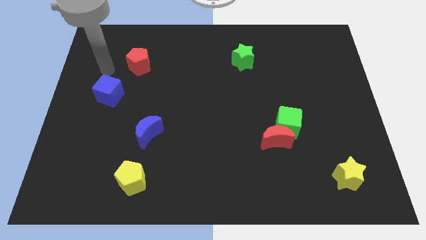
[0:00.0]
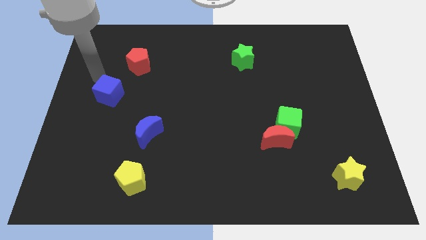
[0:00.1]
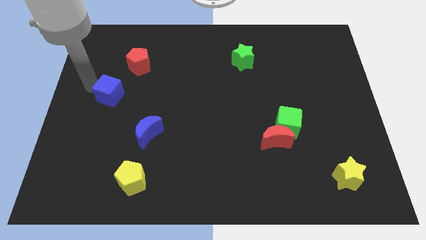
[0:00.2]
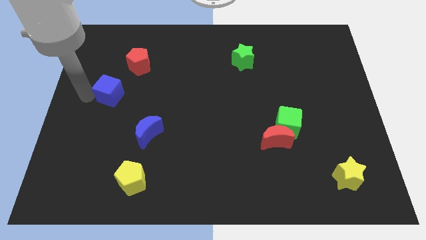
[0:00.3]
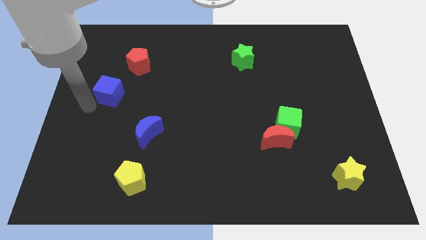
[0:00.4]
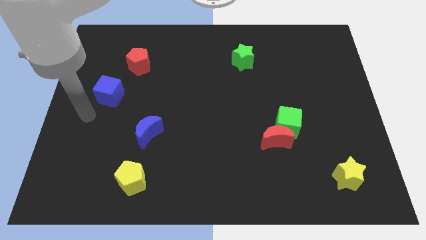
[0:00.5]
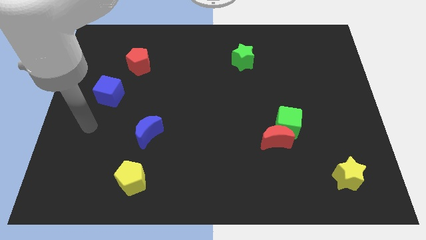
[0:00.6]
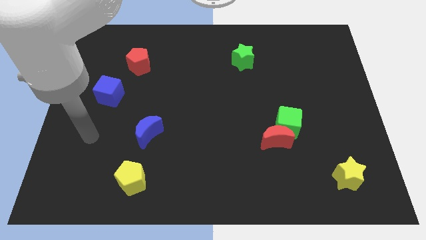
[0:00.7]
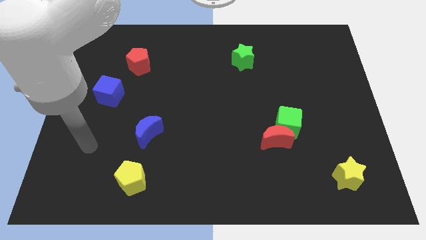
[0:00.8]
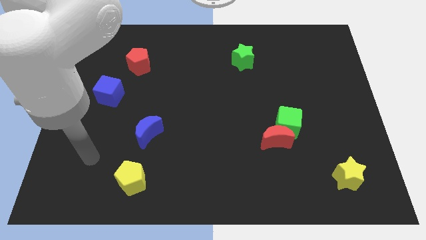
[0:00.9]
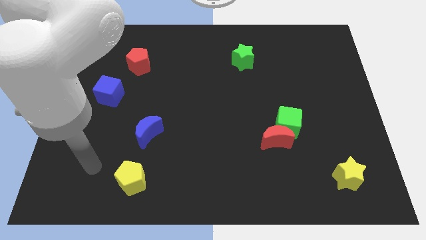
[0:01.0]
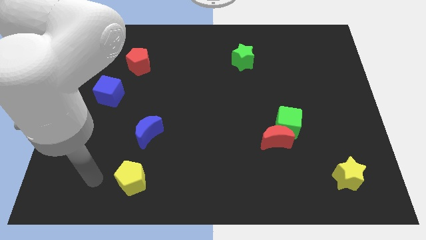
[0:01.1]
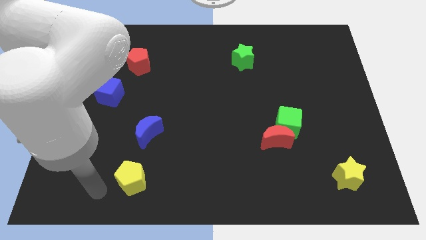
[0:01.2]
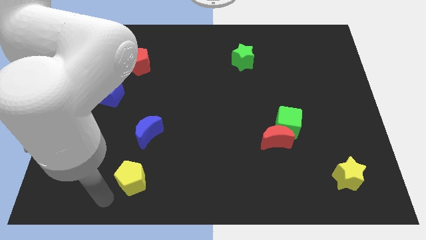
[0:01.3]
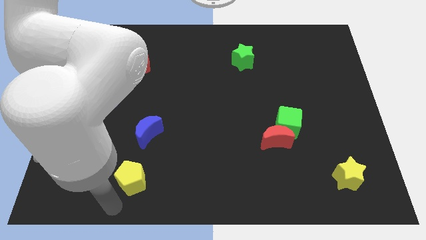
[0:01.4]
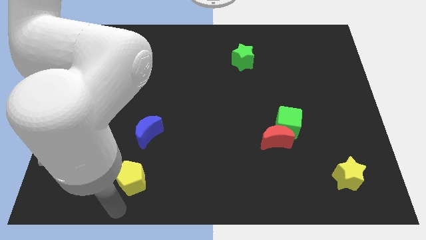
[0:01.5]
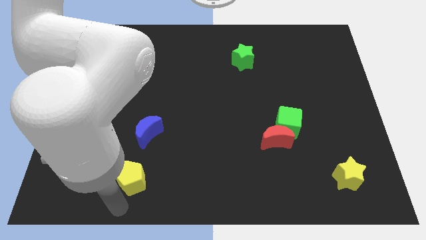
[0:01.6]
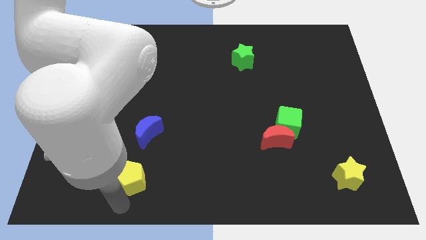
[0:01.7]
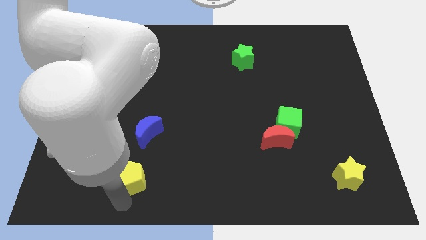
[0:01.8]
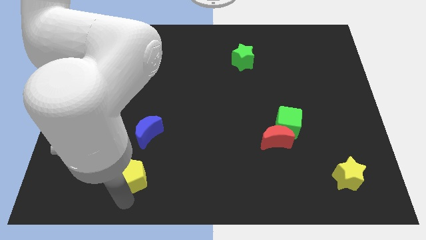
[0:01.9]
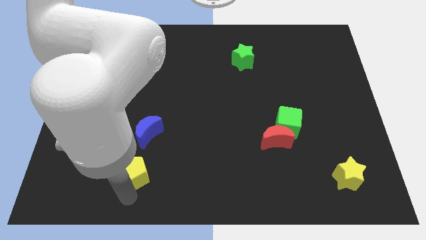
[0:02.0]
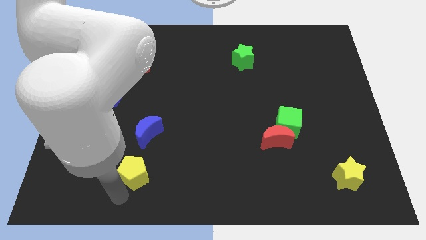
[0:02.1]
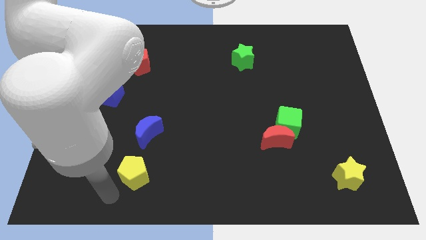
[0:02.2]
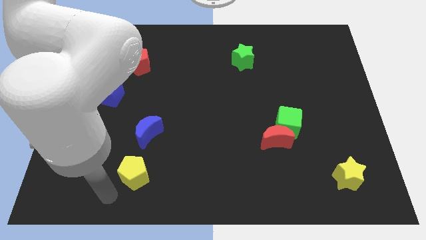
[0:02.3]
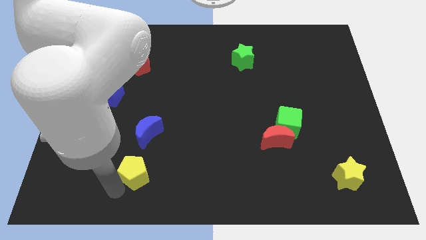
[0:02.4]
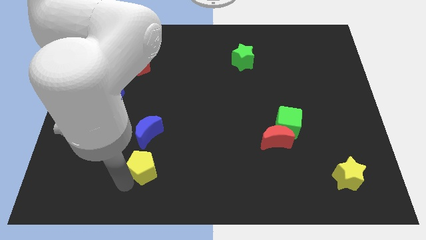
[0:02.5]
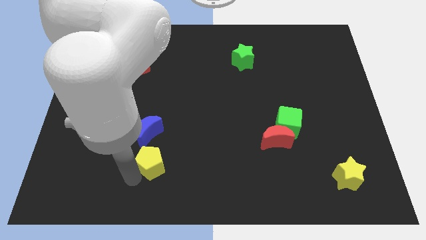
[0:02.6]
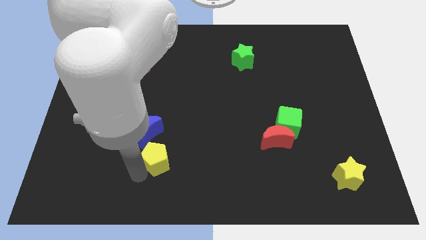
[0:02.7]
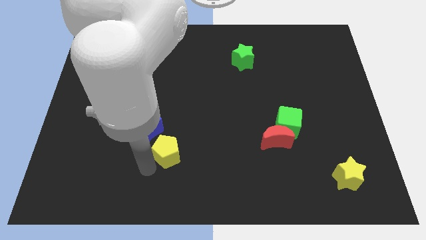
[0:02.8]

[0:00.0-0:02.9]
push the yellow pentagon a little up and then to the right

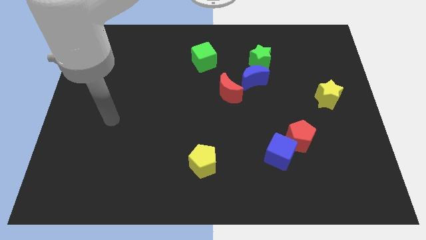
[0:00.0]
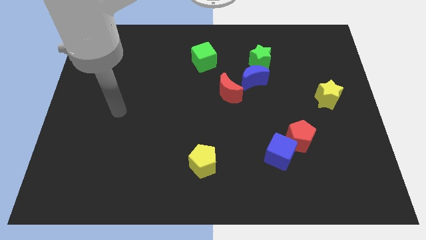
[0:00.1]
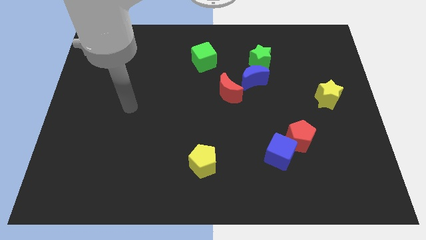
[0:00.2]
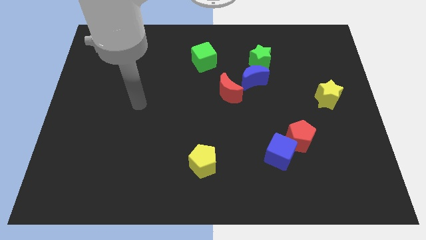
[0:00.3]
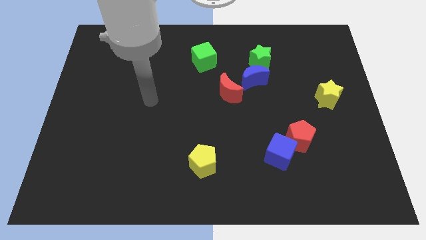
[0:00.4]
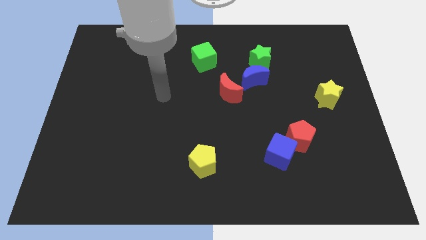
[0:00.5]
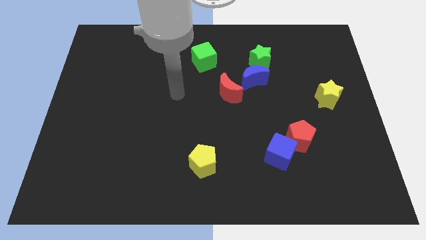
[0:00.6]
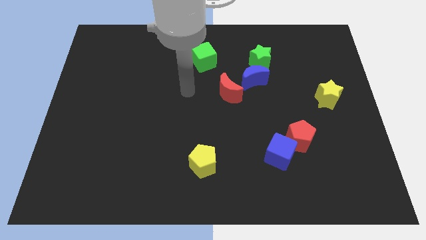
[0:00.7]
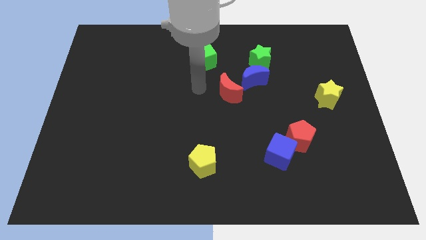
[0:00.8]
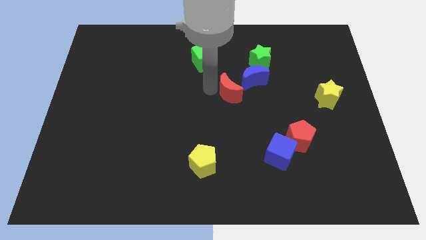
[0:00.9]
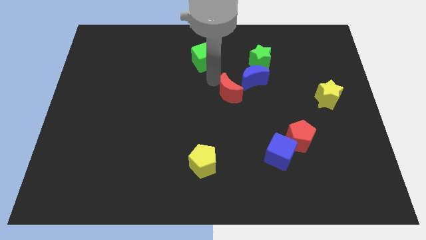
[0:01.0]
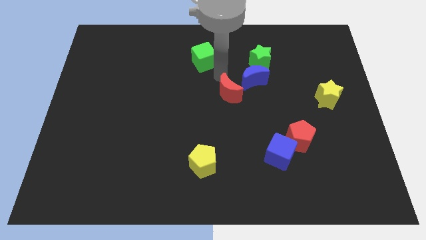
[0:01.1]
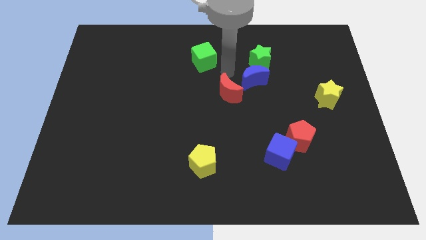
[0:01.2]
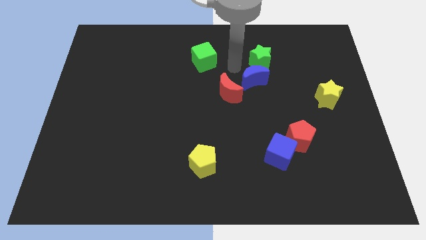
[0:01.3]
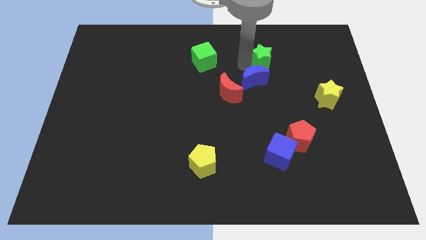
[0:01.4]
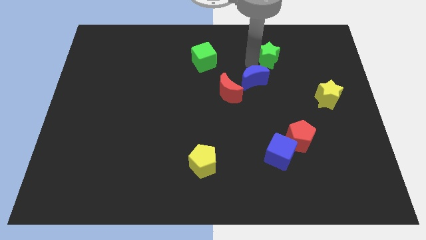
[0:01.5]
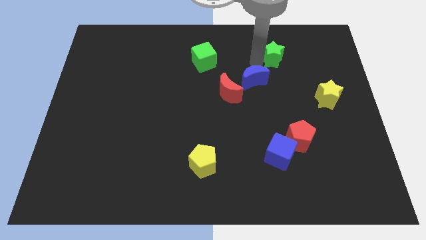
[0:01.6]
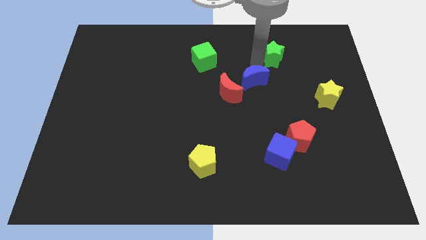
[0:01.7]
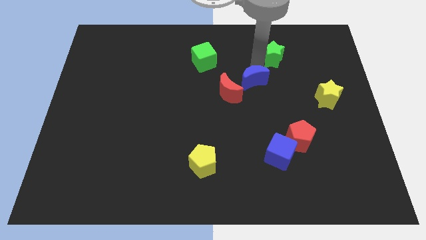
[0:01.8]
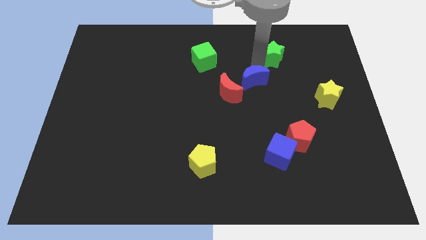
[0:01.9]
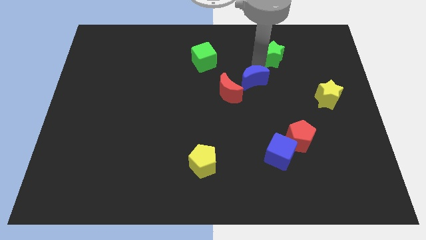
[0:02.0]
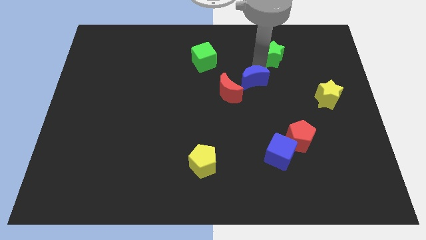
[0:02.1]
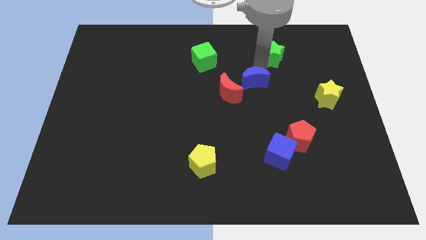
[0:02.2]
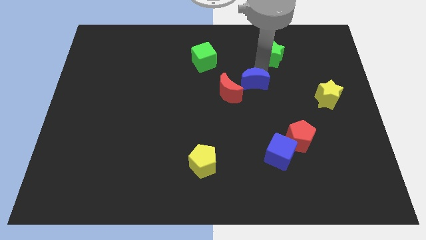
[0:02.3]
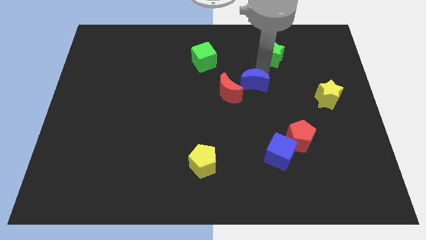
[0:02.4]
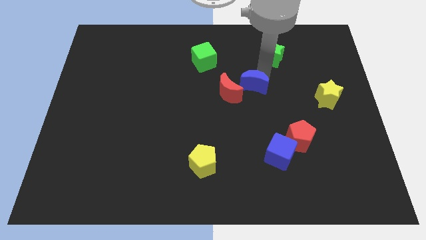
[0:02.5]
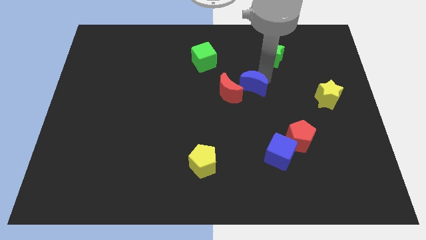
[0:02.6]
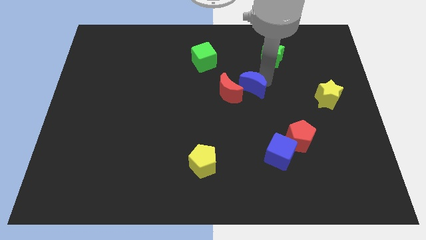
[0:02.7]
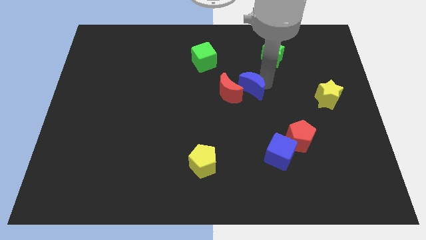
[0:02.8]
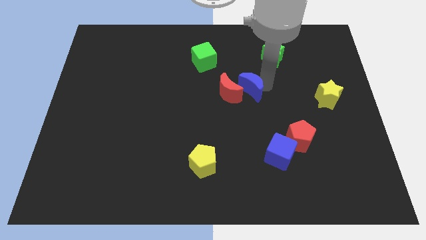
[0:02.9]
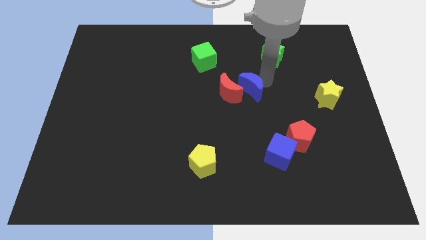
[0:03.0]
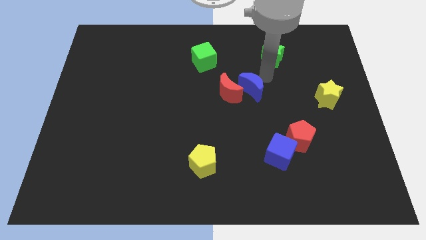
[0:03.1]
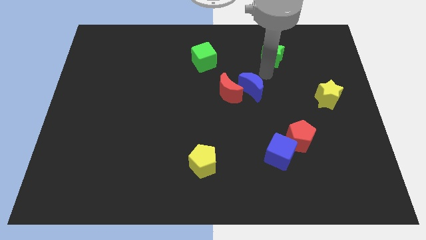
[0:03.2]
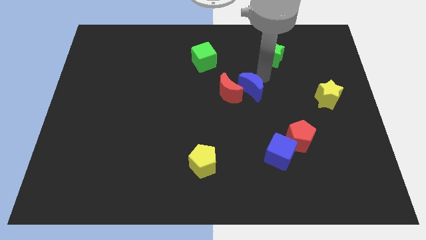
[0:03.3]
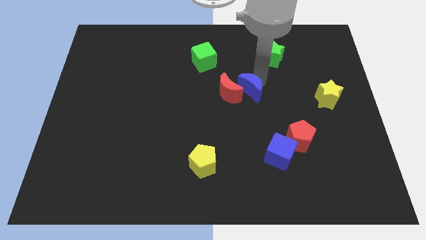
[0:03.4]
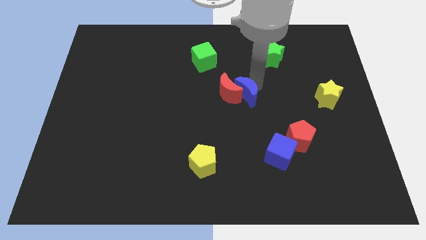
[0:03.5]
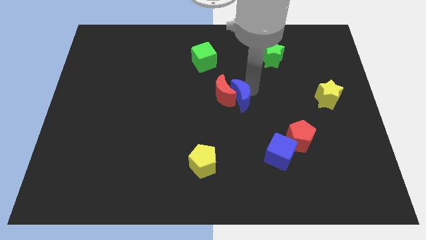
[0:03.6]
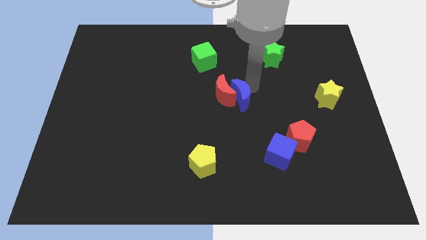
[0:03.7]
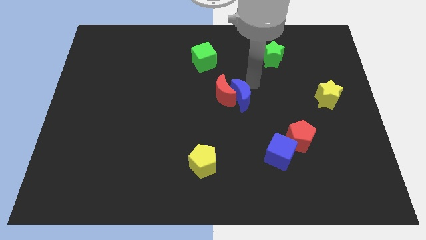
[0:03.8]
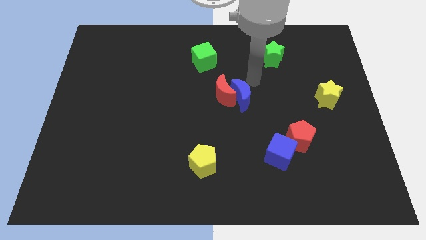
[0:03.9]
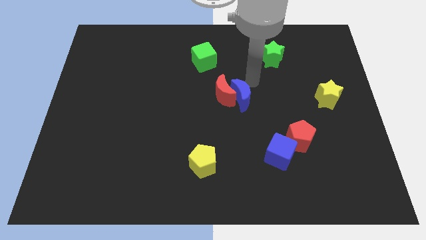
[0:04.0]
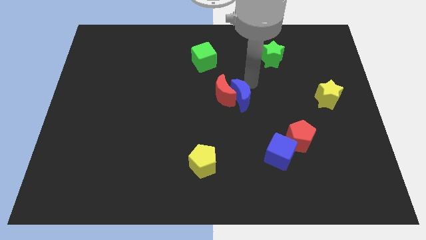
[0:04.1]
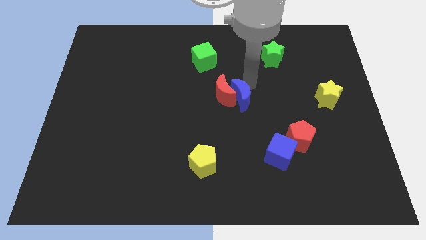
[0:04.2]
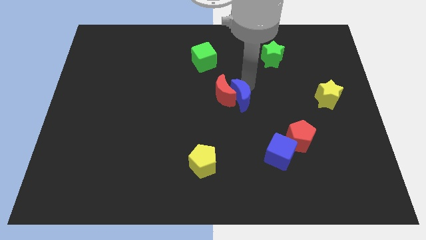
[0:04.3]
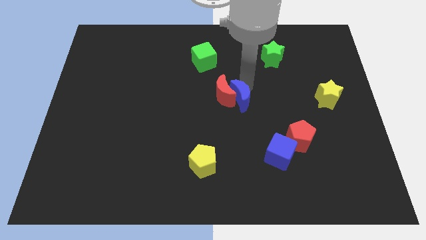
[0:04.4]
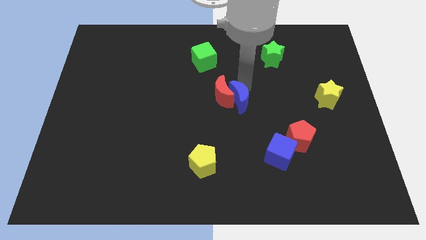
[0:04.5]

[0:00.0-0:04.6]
move the blue moon a little bit downwards and then left

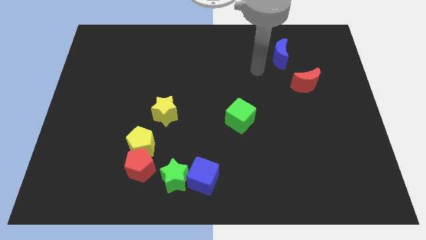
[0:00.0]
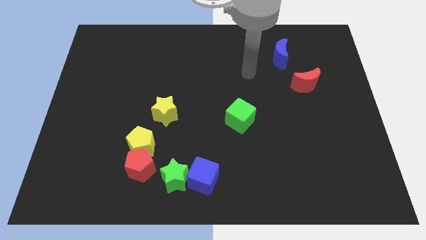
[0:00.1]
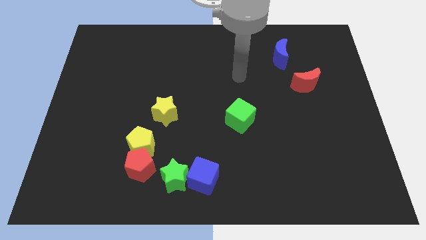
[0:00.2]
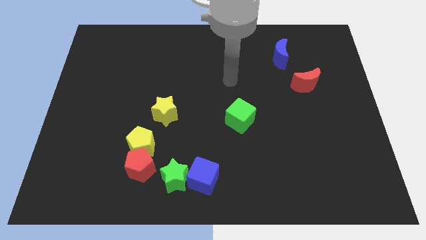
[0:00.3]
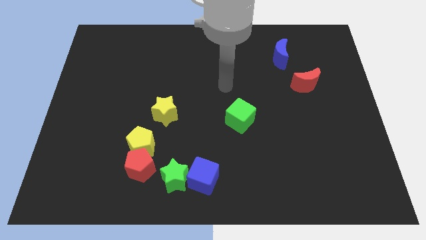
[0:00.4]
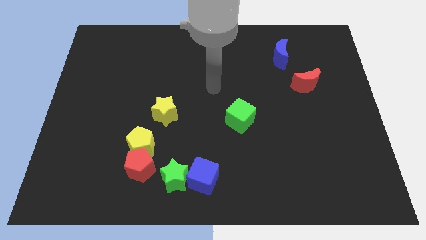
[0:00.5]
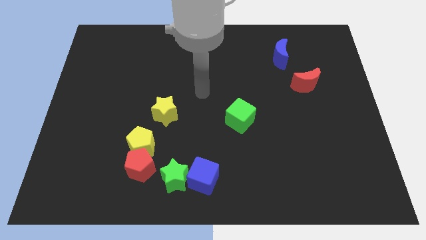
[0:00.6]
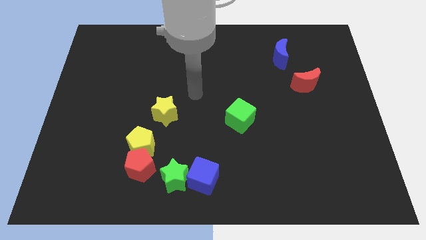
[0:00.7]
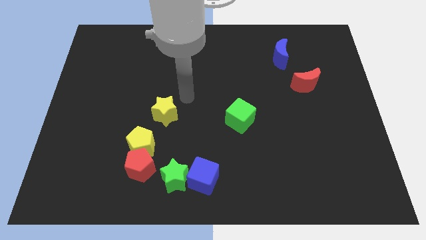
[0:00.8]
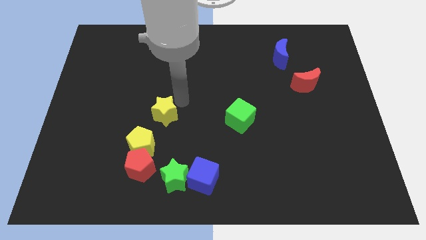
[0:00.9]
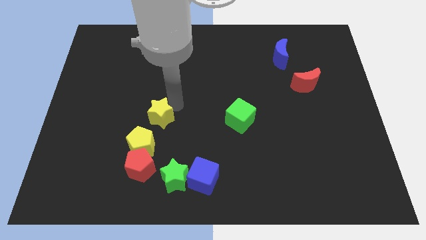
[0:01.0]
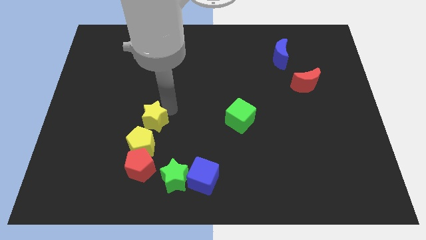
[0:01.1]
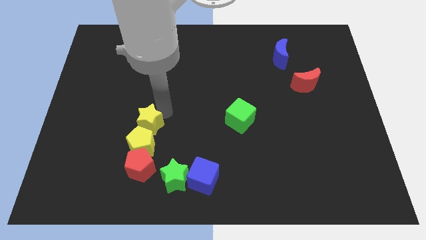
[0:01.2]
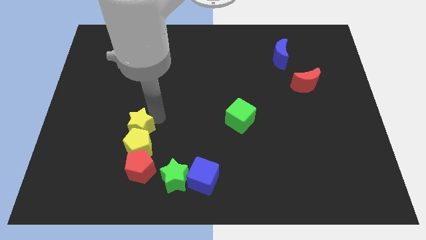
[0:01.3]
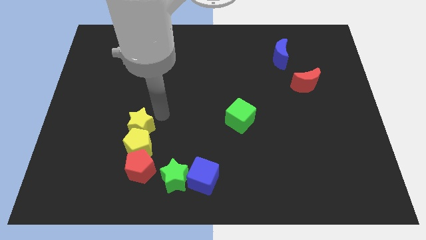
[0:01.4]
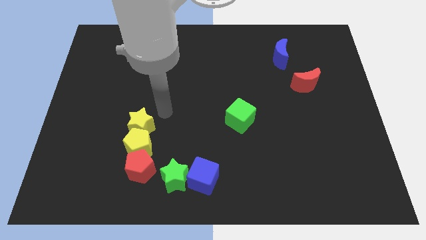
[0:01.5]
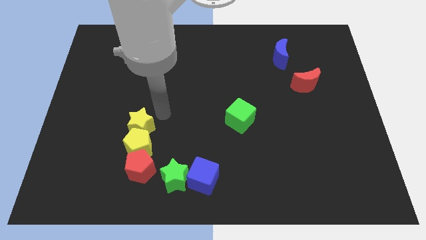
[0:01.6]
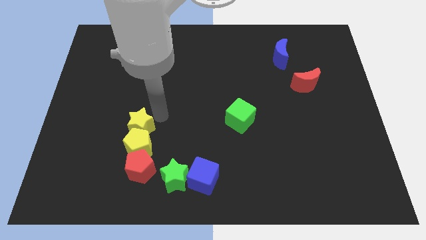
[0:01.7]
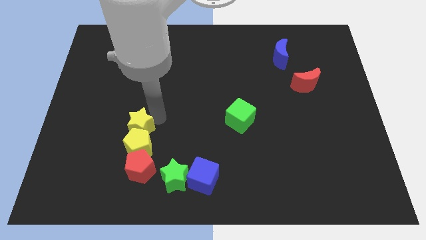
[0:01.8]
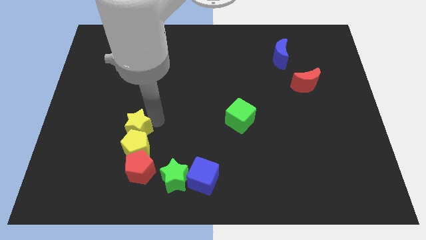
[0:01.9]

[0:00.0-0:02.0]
move the yellow star somewhat downwards and to the left
